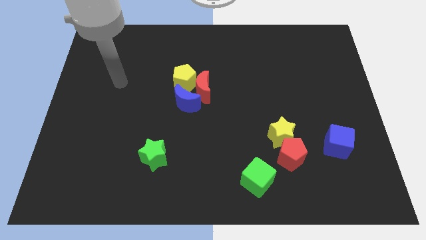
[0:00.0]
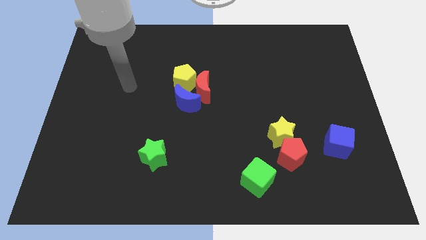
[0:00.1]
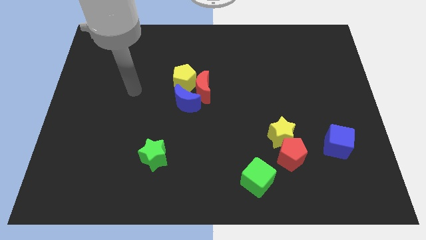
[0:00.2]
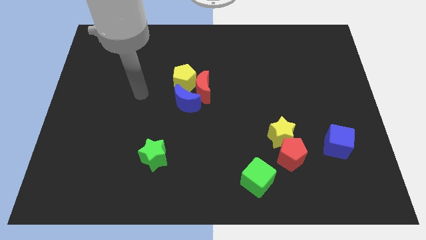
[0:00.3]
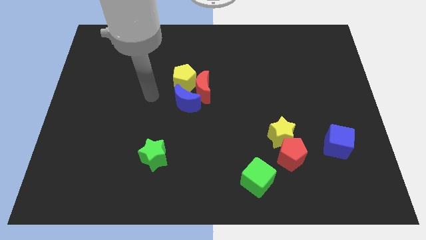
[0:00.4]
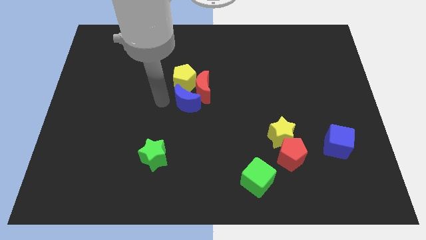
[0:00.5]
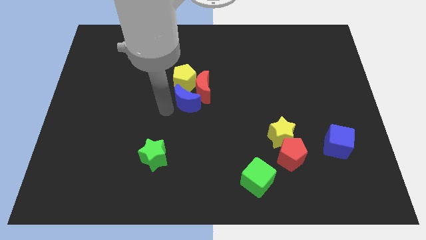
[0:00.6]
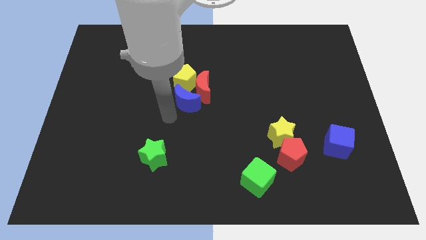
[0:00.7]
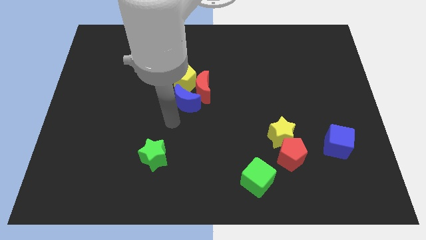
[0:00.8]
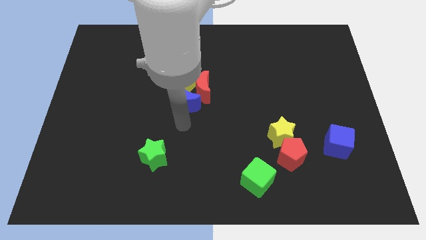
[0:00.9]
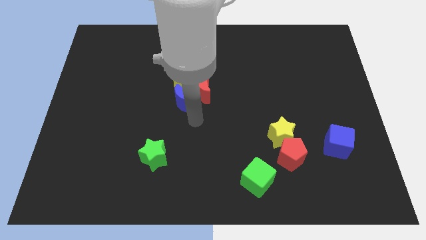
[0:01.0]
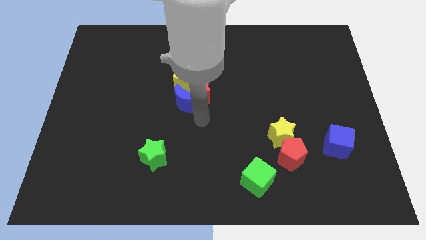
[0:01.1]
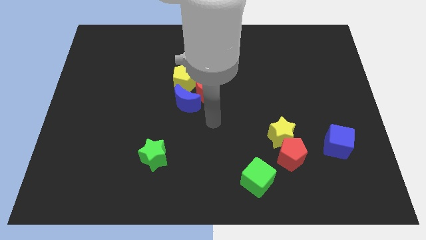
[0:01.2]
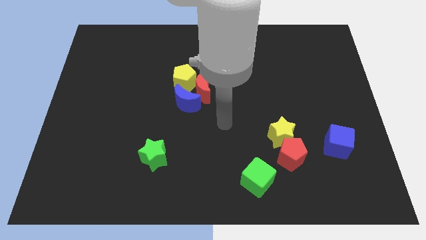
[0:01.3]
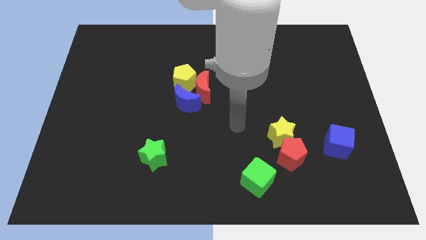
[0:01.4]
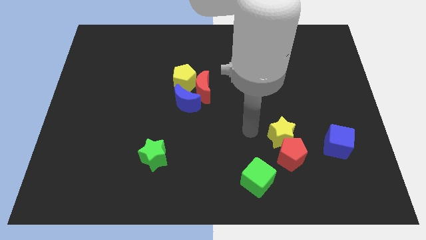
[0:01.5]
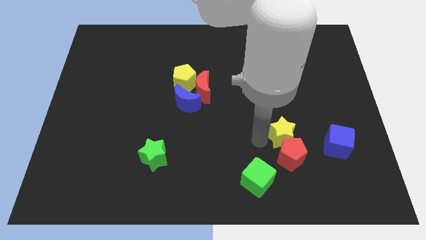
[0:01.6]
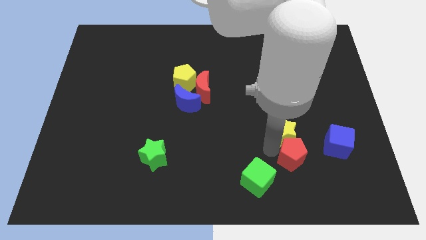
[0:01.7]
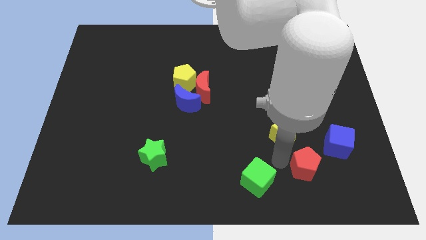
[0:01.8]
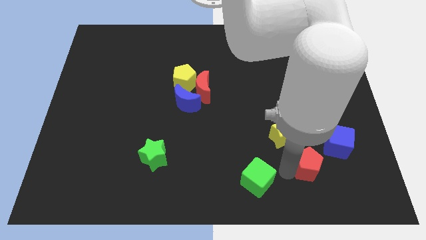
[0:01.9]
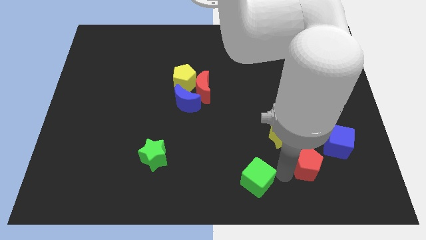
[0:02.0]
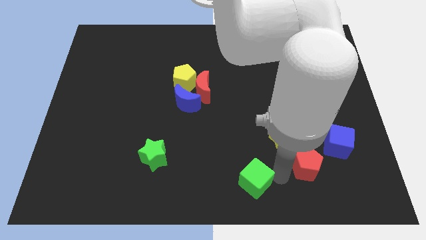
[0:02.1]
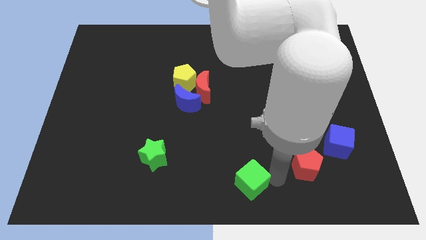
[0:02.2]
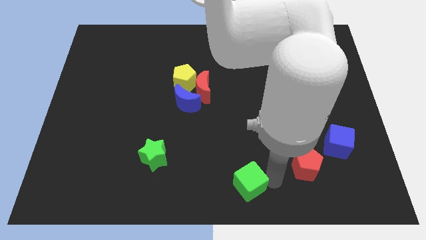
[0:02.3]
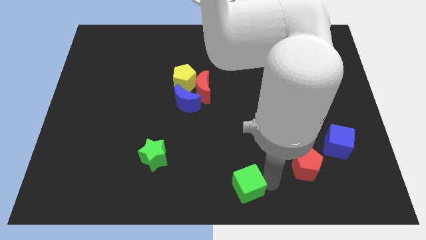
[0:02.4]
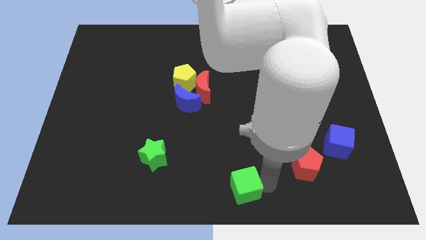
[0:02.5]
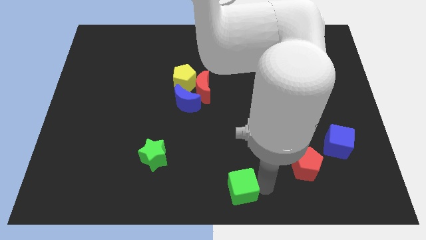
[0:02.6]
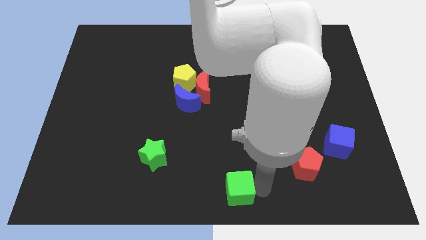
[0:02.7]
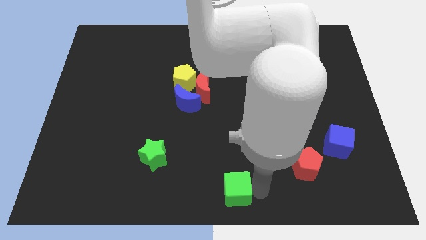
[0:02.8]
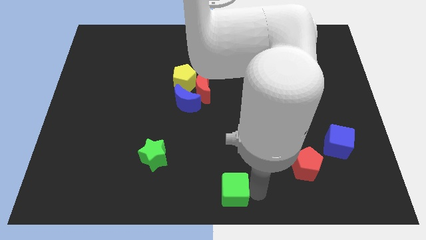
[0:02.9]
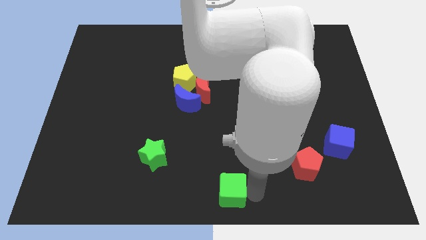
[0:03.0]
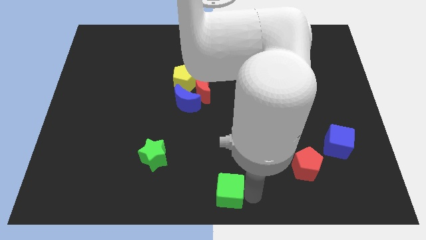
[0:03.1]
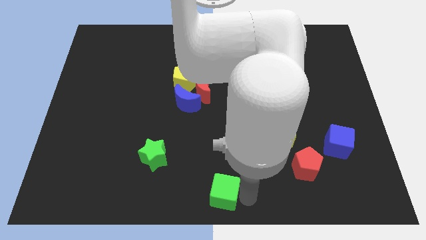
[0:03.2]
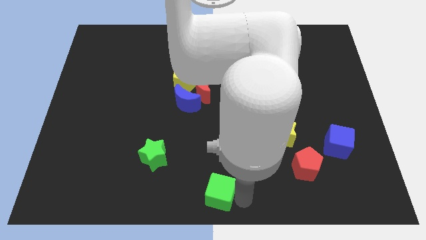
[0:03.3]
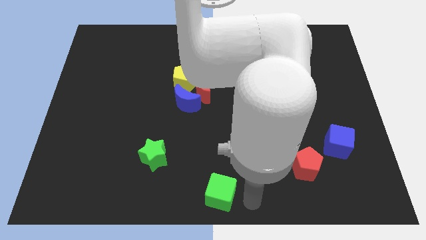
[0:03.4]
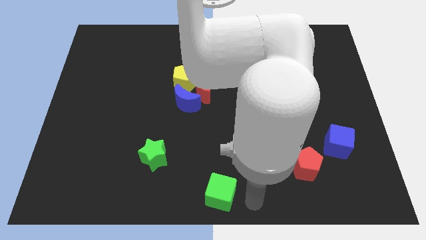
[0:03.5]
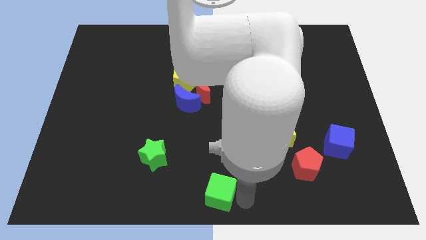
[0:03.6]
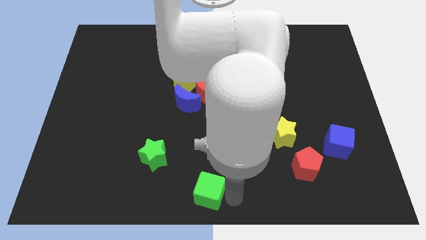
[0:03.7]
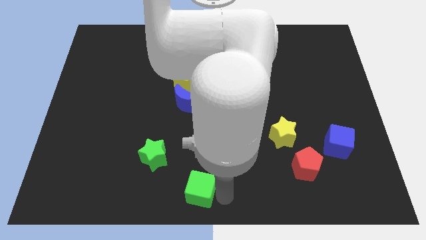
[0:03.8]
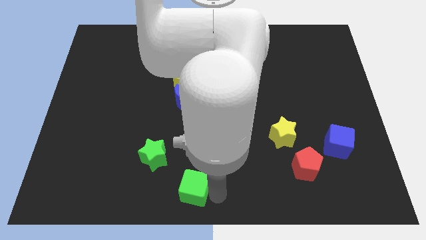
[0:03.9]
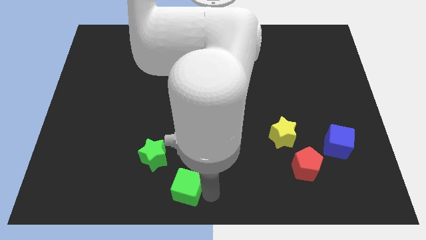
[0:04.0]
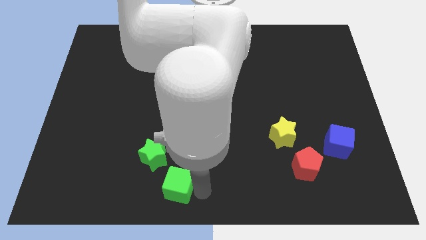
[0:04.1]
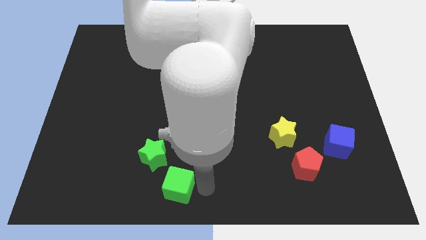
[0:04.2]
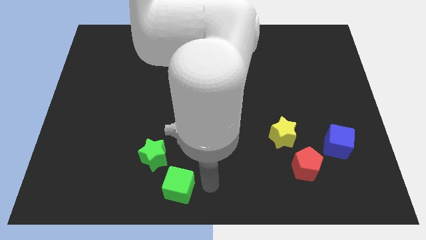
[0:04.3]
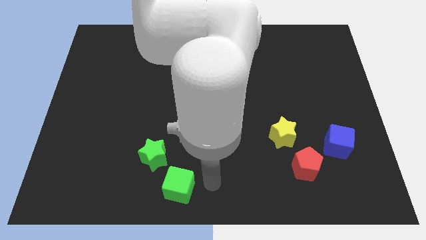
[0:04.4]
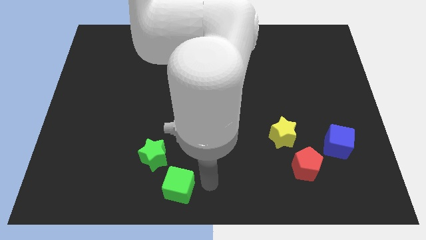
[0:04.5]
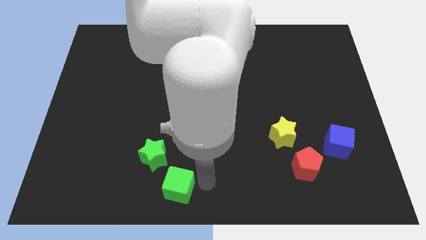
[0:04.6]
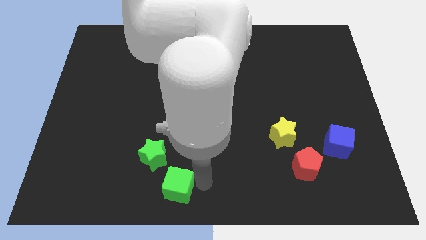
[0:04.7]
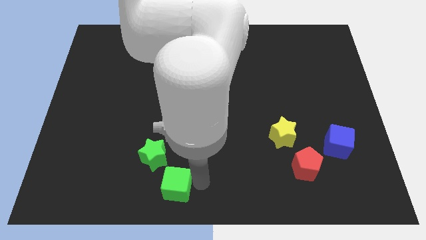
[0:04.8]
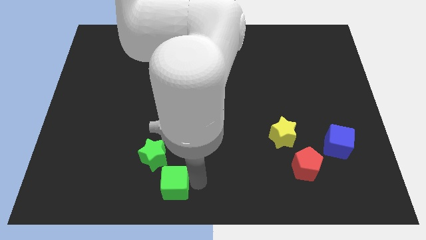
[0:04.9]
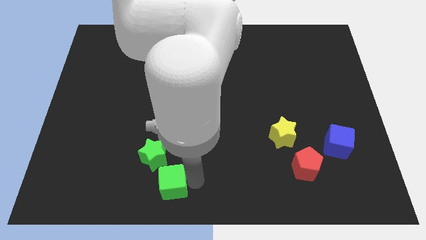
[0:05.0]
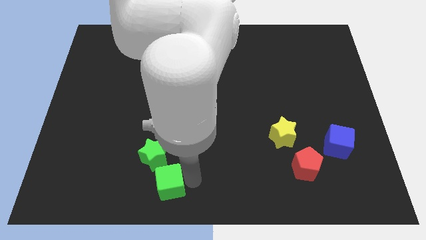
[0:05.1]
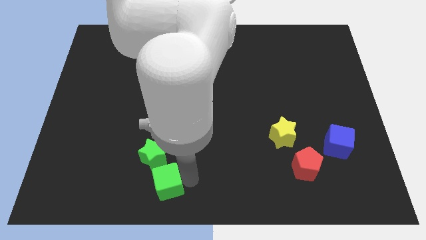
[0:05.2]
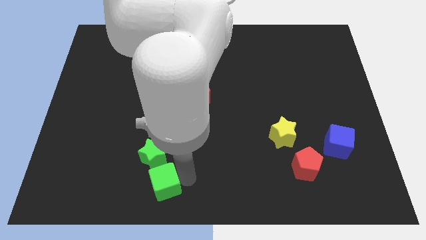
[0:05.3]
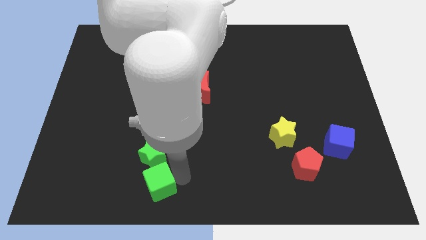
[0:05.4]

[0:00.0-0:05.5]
slide the green cube to the left

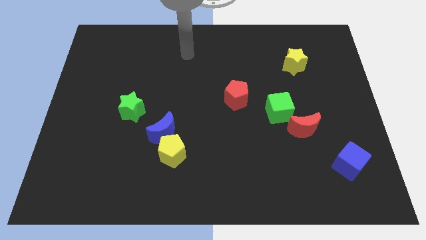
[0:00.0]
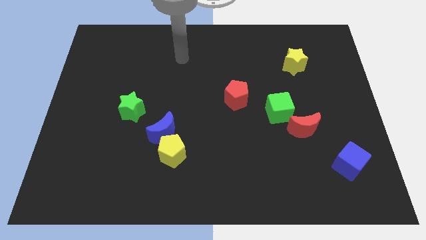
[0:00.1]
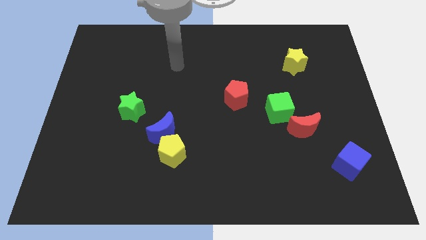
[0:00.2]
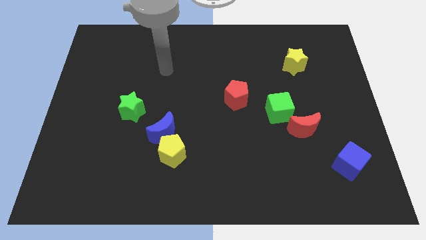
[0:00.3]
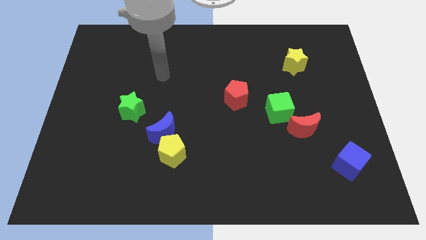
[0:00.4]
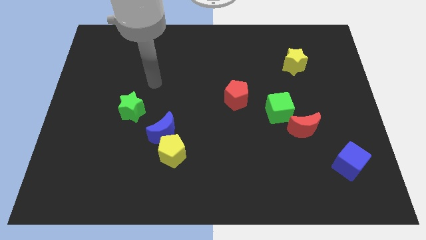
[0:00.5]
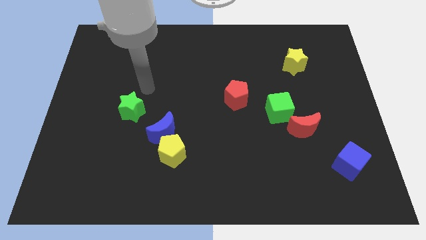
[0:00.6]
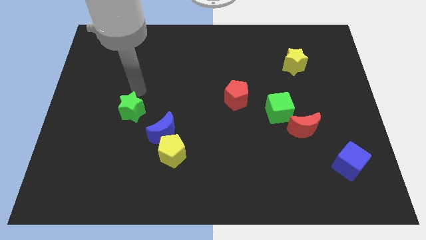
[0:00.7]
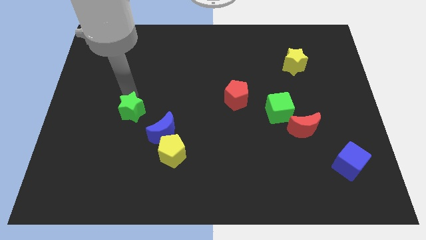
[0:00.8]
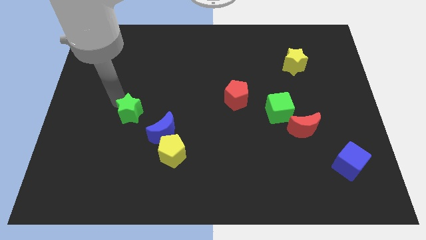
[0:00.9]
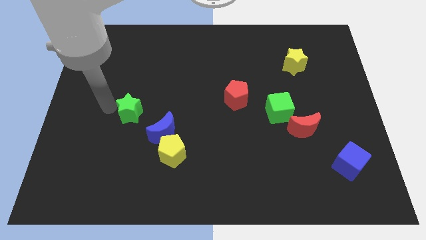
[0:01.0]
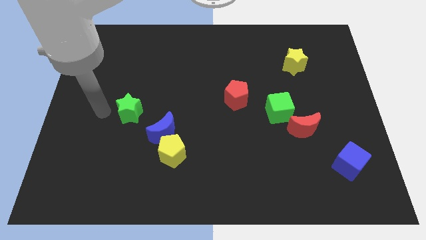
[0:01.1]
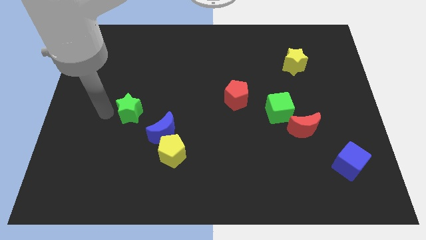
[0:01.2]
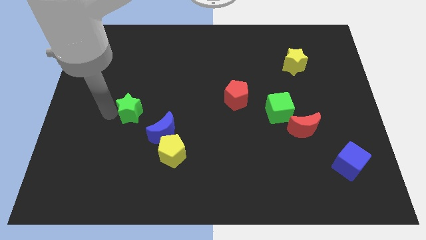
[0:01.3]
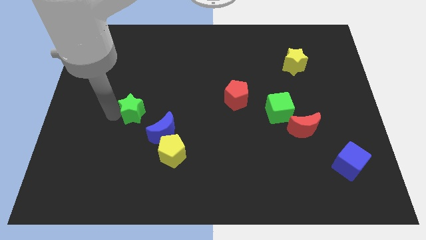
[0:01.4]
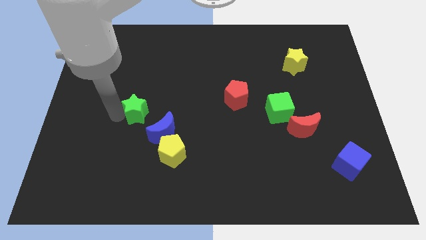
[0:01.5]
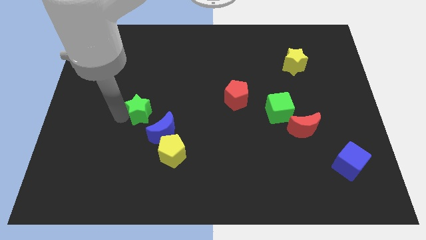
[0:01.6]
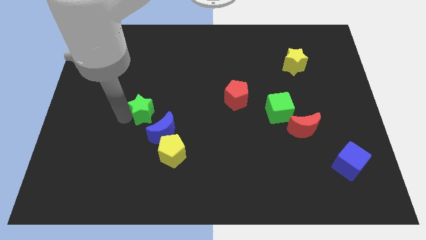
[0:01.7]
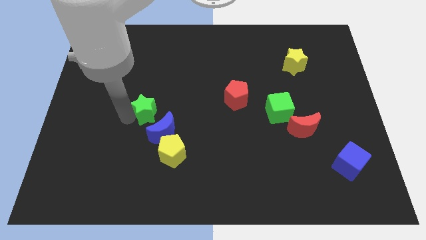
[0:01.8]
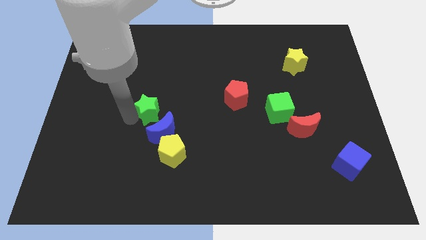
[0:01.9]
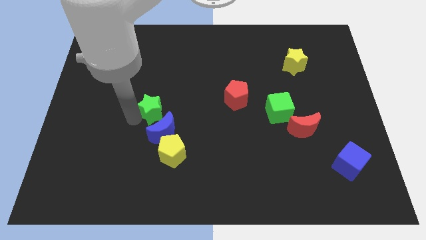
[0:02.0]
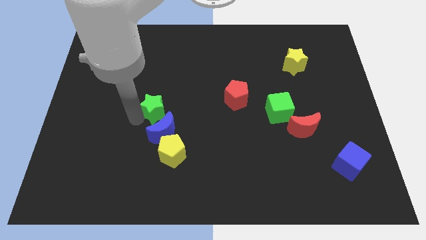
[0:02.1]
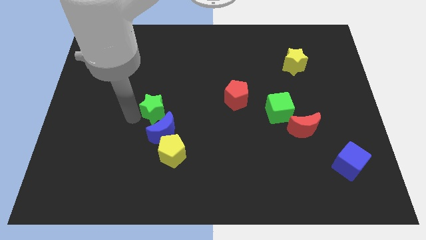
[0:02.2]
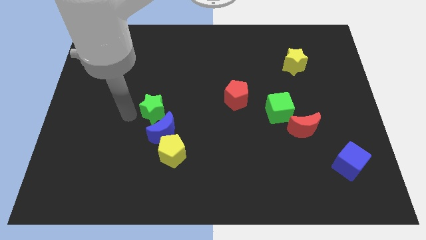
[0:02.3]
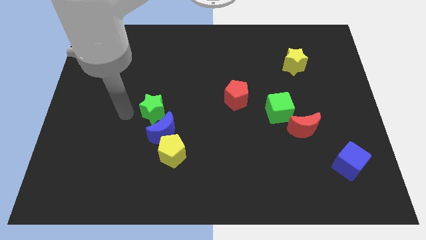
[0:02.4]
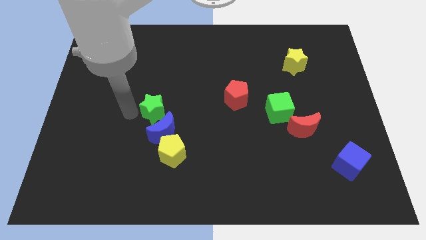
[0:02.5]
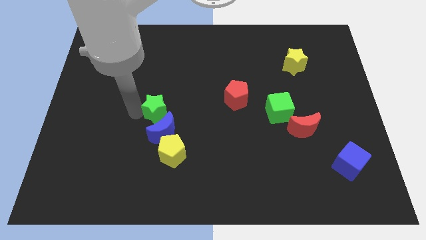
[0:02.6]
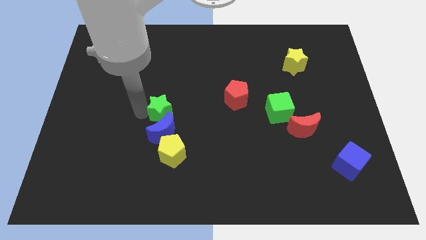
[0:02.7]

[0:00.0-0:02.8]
push the green star somewhat to the right
